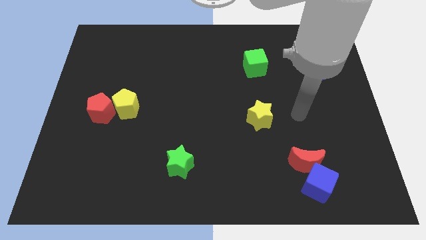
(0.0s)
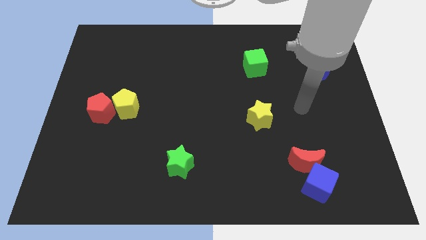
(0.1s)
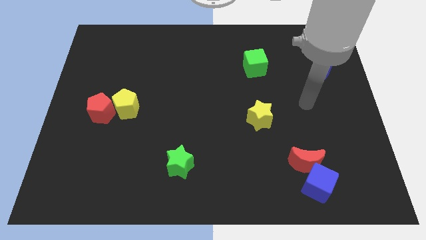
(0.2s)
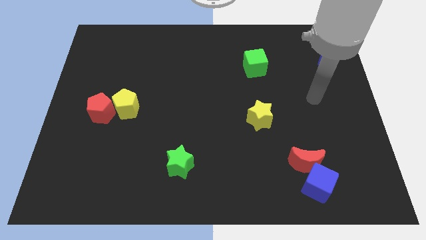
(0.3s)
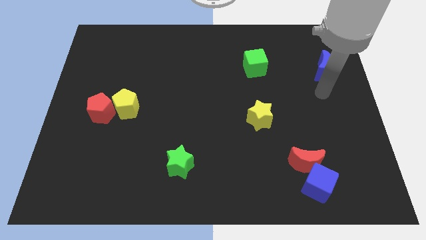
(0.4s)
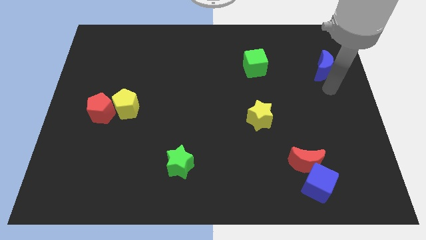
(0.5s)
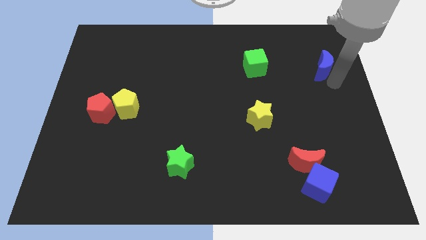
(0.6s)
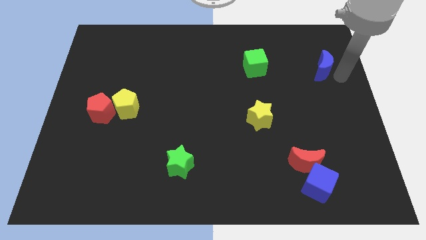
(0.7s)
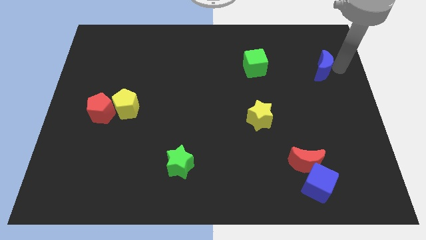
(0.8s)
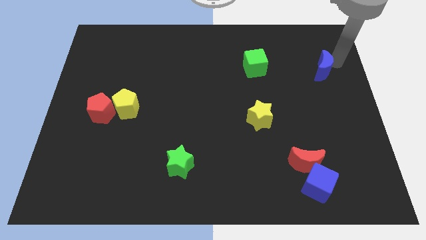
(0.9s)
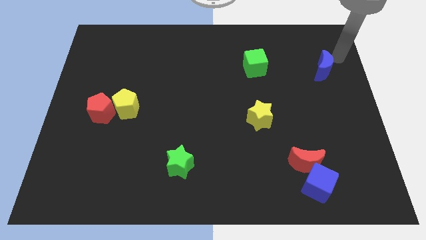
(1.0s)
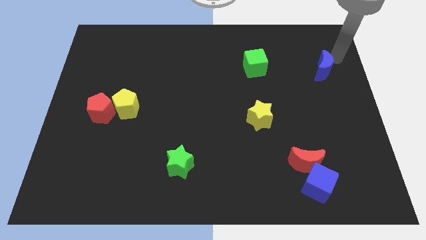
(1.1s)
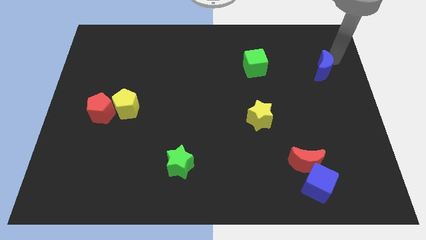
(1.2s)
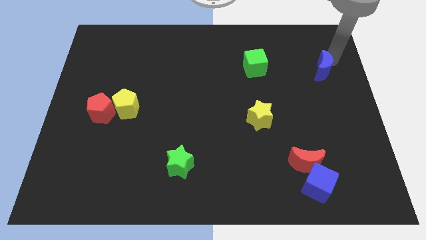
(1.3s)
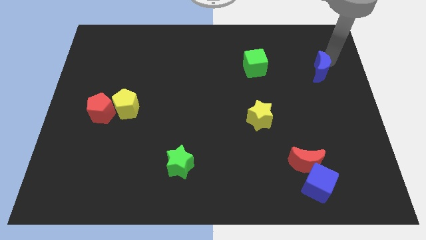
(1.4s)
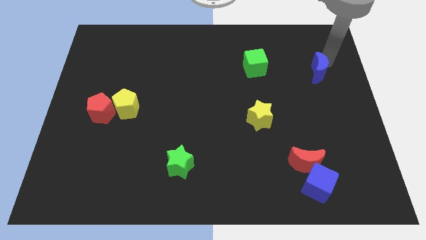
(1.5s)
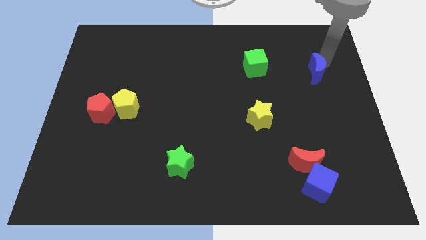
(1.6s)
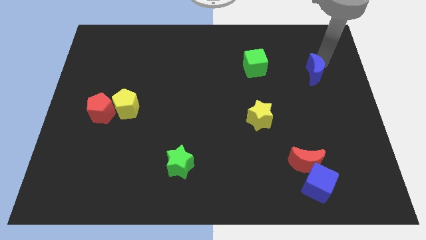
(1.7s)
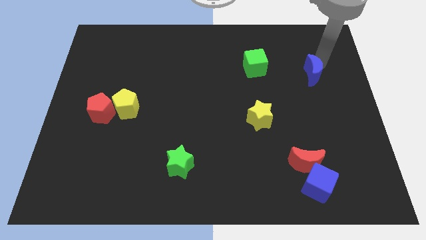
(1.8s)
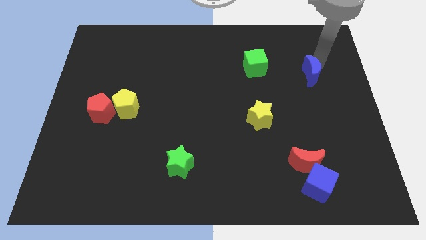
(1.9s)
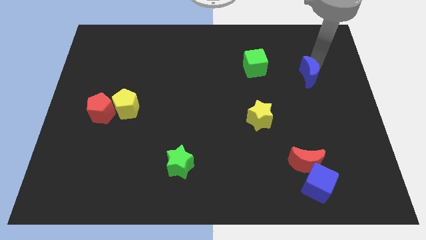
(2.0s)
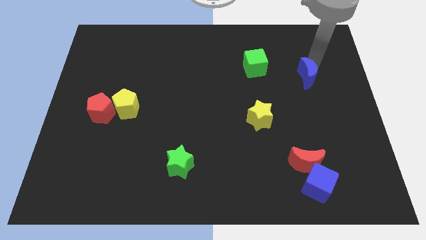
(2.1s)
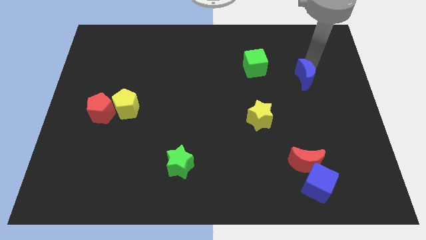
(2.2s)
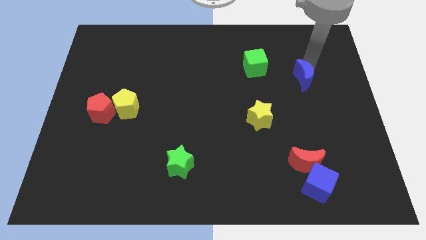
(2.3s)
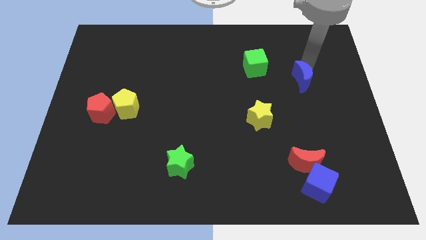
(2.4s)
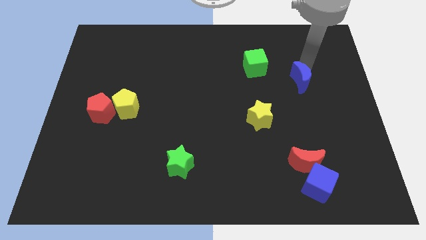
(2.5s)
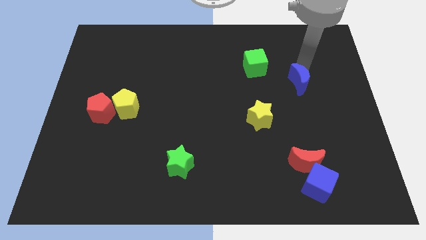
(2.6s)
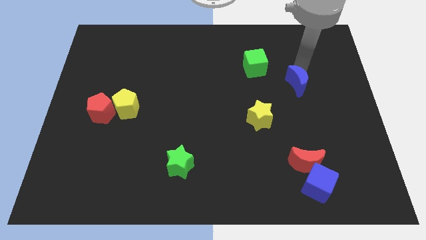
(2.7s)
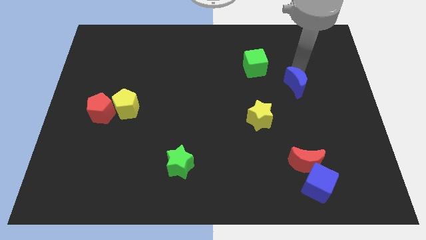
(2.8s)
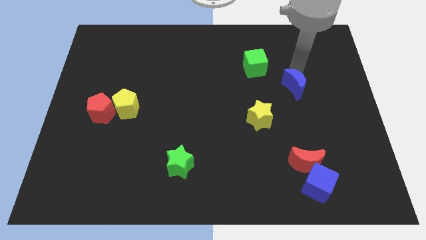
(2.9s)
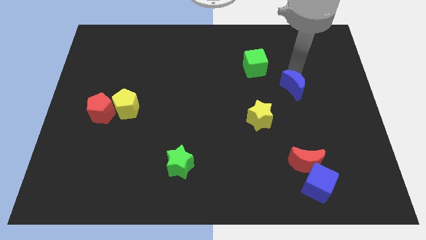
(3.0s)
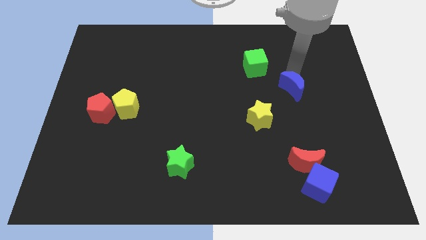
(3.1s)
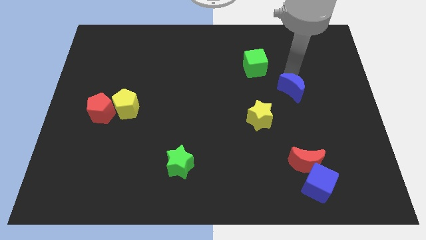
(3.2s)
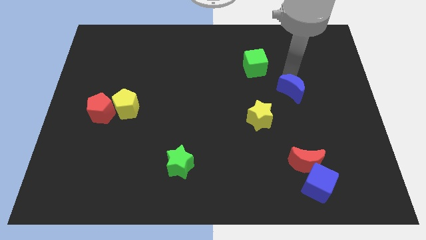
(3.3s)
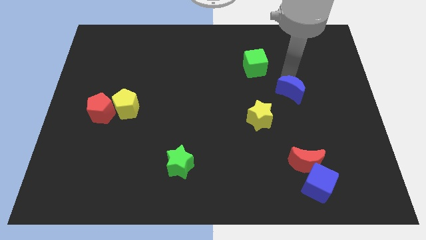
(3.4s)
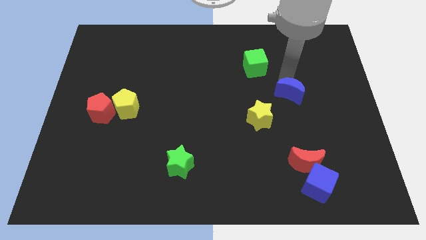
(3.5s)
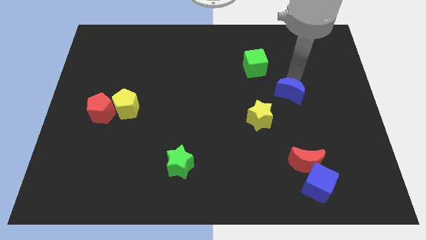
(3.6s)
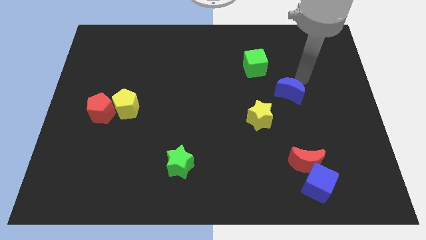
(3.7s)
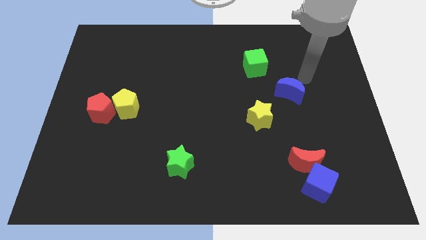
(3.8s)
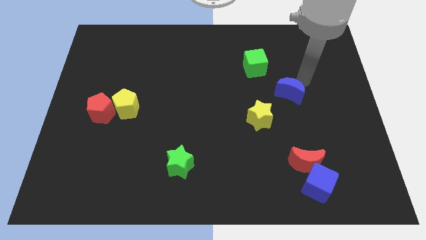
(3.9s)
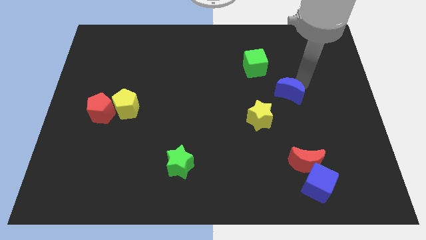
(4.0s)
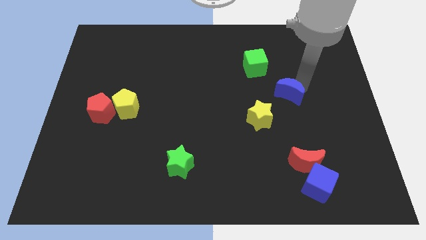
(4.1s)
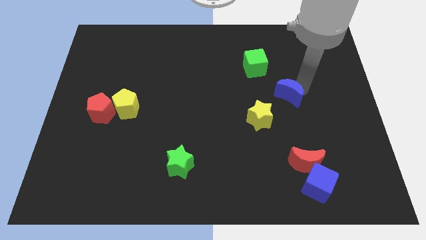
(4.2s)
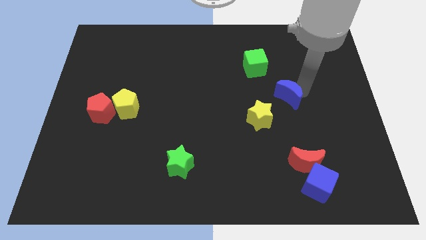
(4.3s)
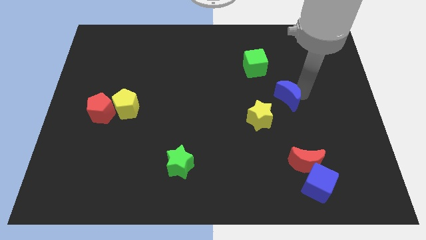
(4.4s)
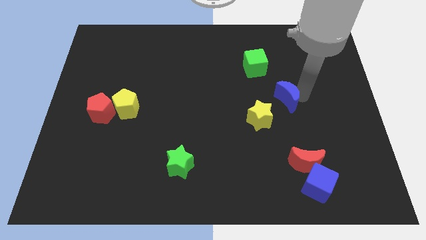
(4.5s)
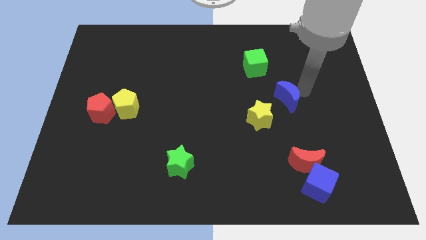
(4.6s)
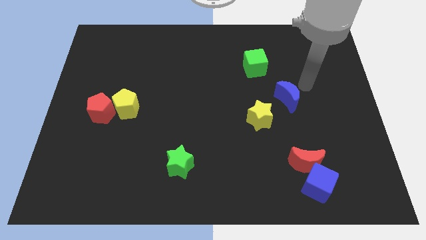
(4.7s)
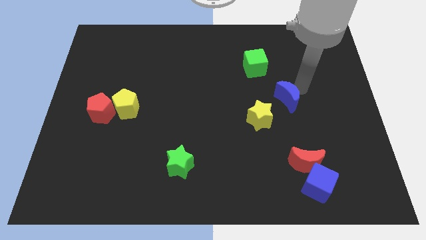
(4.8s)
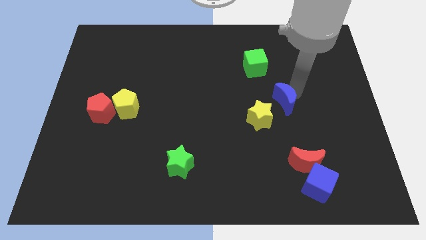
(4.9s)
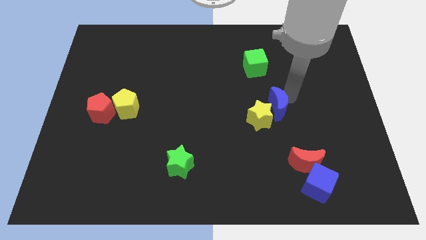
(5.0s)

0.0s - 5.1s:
slide the blue moon close to the yellow star

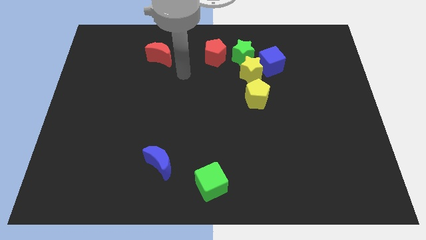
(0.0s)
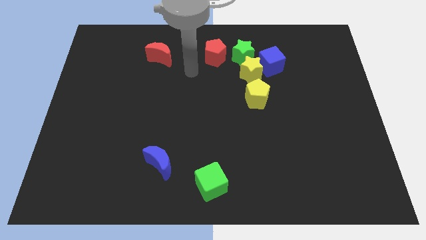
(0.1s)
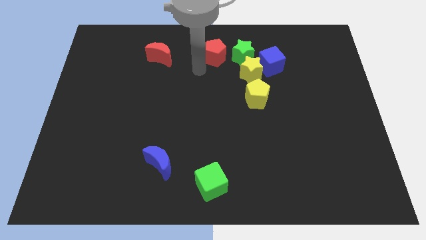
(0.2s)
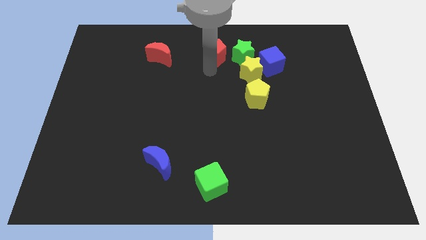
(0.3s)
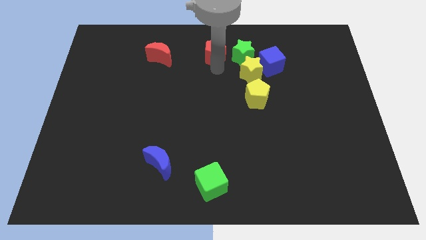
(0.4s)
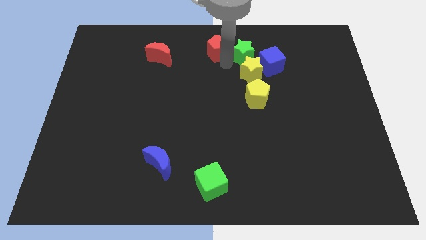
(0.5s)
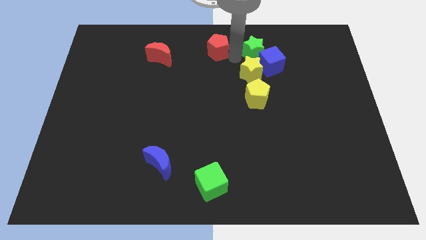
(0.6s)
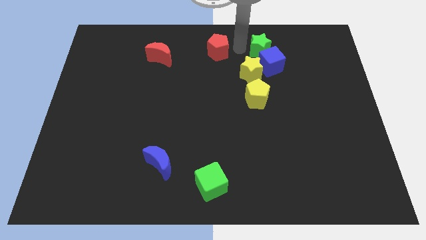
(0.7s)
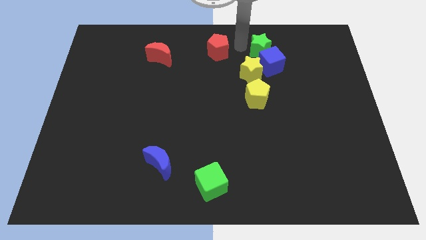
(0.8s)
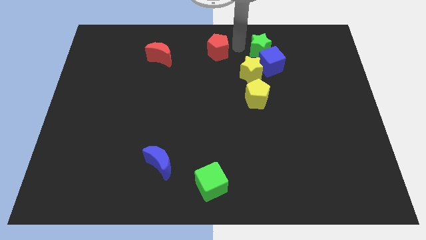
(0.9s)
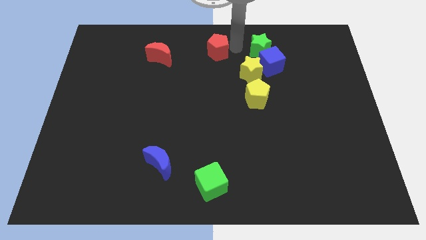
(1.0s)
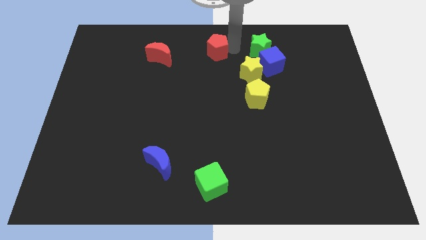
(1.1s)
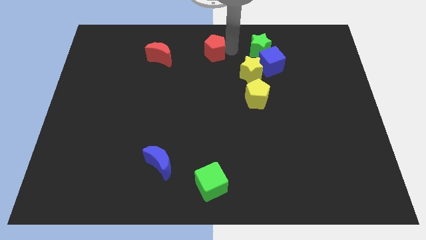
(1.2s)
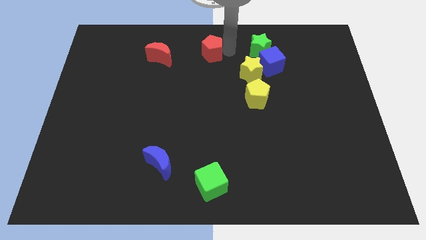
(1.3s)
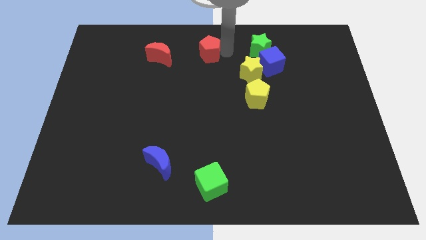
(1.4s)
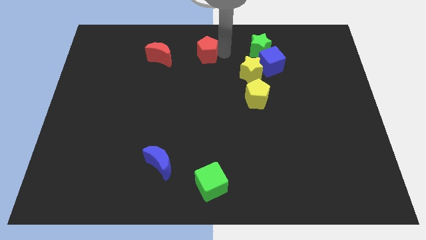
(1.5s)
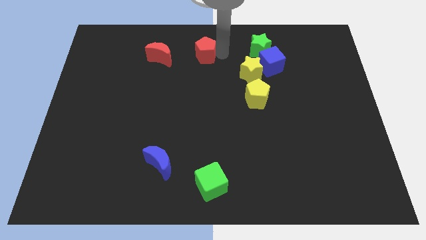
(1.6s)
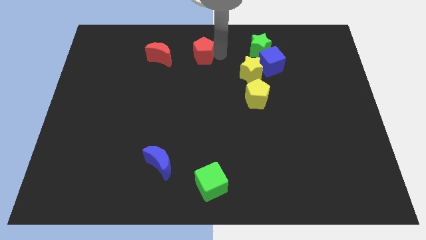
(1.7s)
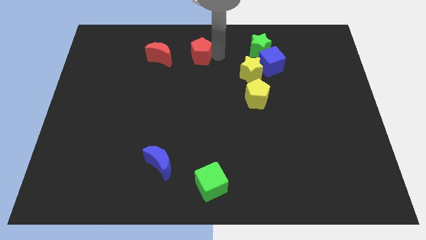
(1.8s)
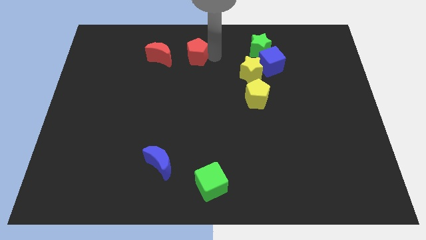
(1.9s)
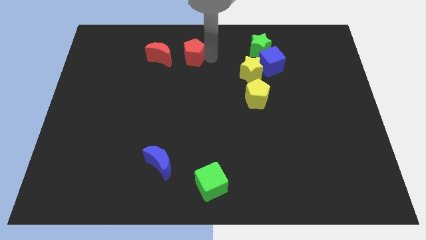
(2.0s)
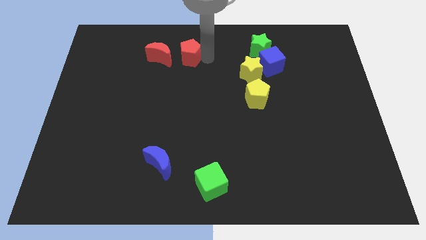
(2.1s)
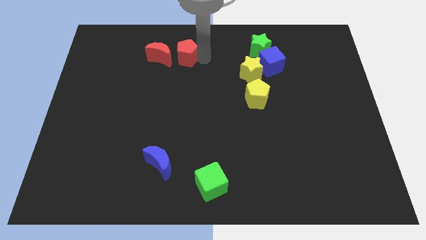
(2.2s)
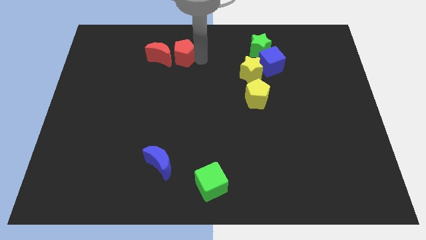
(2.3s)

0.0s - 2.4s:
push the red pentagon next to the red moon

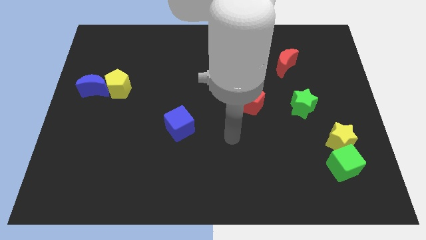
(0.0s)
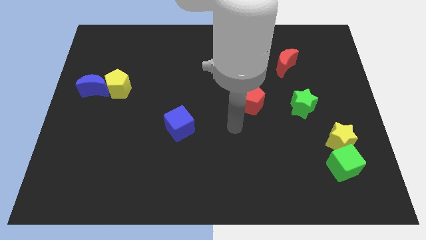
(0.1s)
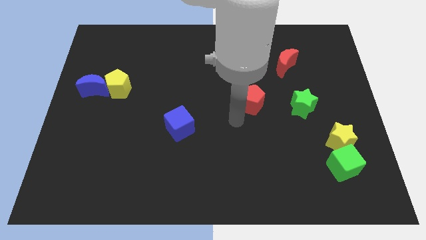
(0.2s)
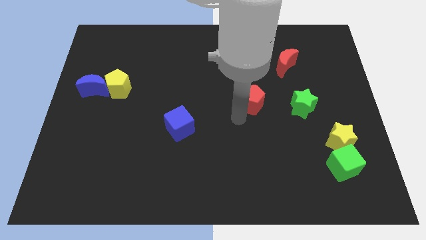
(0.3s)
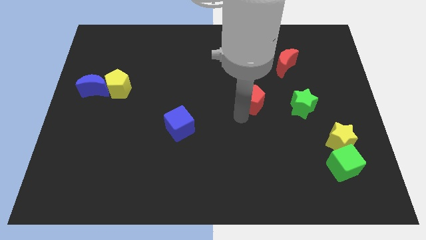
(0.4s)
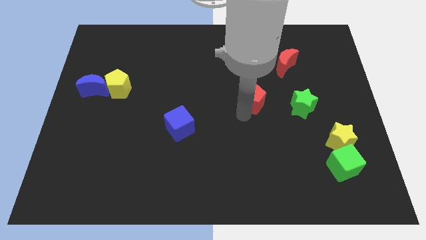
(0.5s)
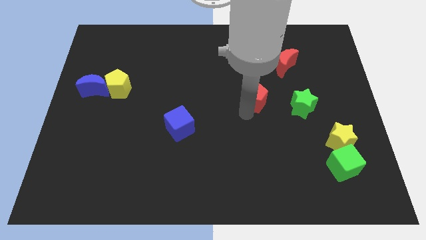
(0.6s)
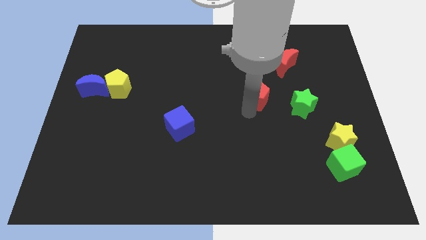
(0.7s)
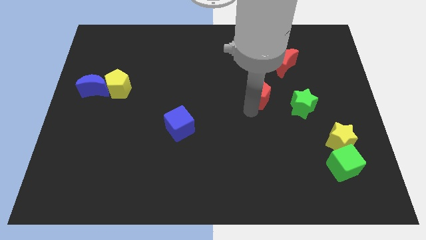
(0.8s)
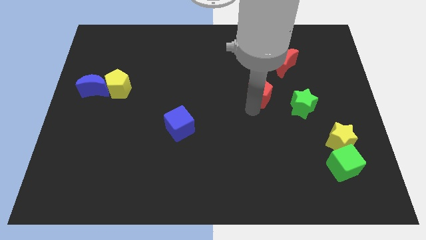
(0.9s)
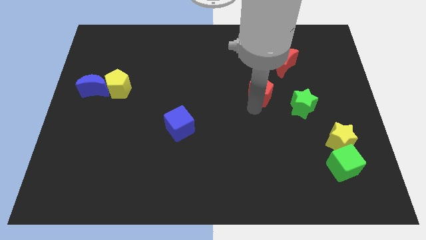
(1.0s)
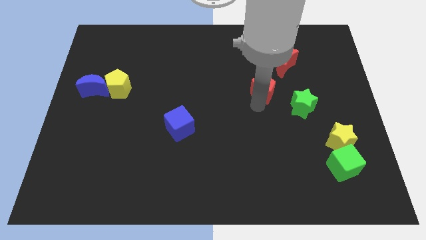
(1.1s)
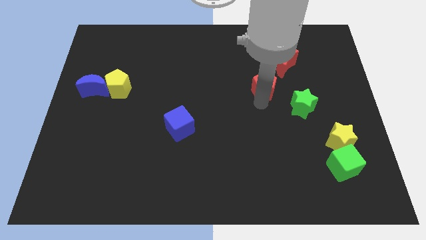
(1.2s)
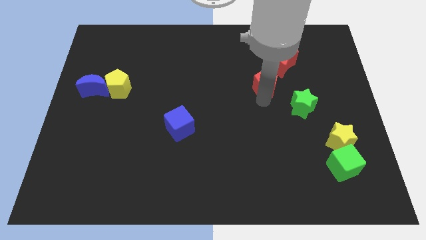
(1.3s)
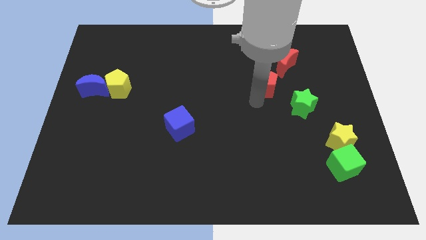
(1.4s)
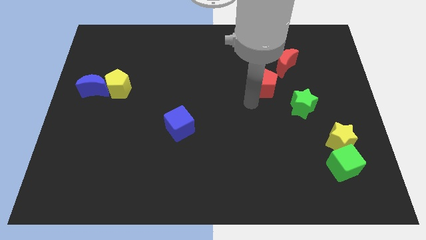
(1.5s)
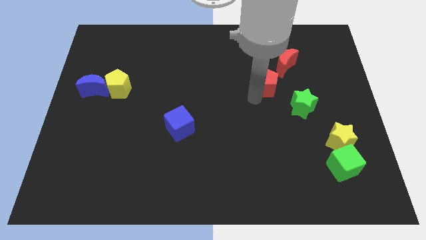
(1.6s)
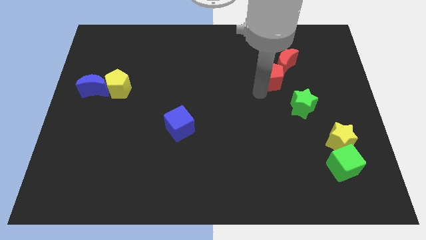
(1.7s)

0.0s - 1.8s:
slide the red pentagon next to the red moon
